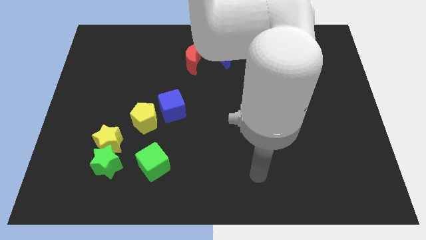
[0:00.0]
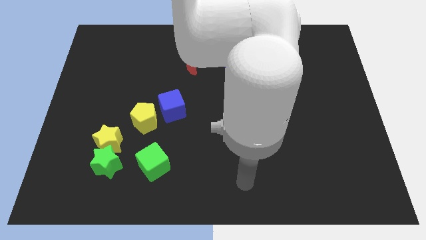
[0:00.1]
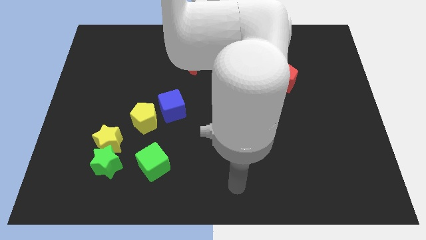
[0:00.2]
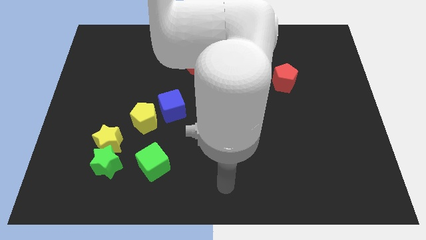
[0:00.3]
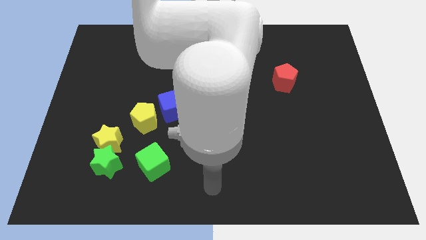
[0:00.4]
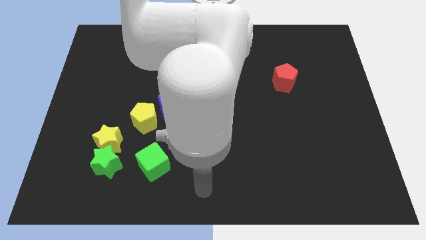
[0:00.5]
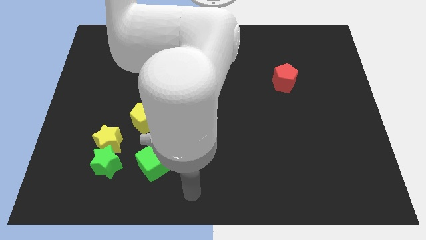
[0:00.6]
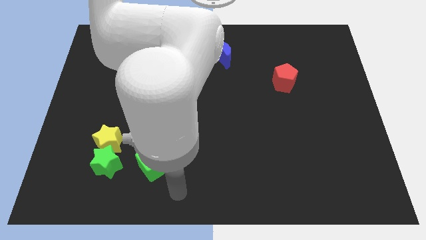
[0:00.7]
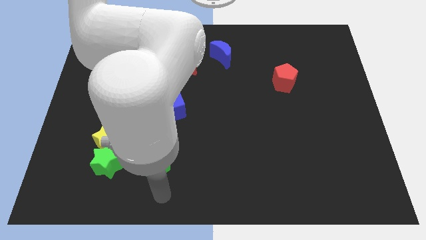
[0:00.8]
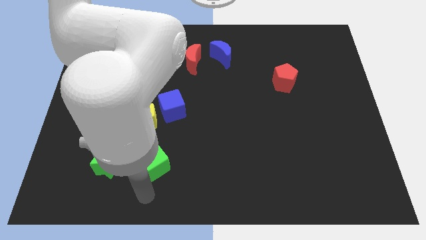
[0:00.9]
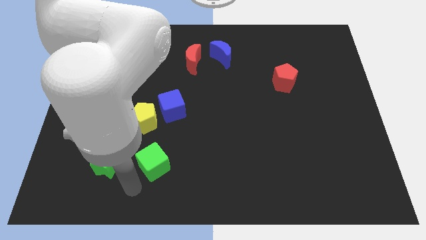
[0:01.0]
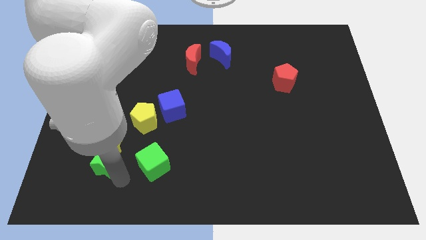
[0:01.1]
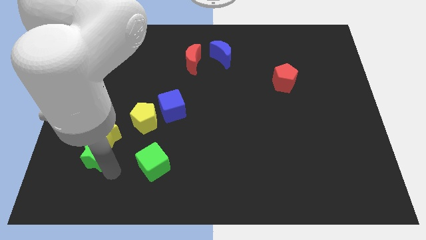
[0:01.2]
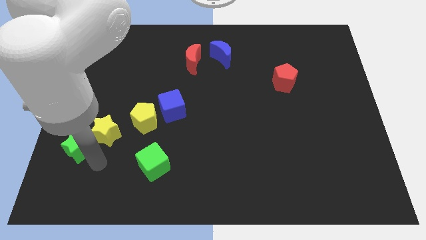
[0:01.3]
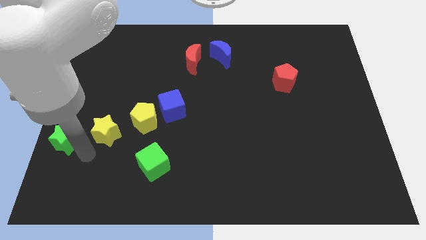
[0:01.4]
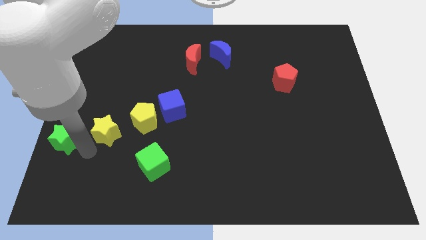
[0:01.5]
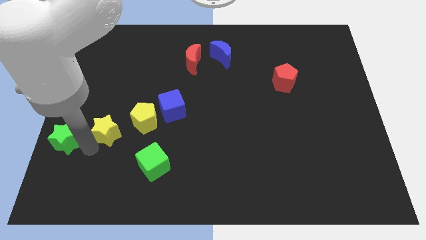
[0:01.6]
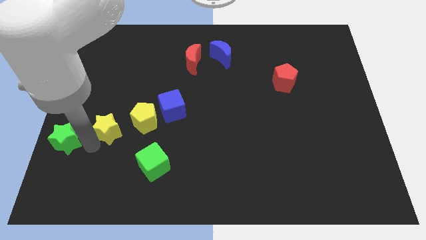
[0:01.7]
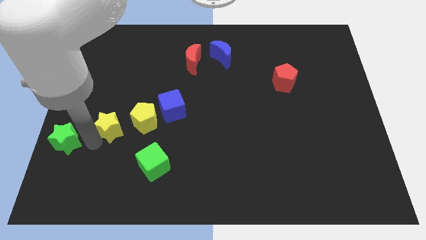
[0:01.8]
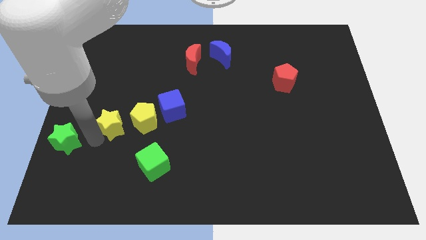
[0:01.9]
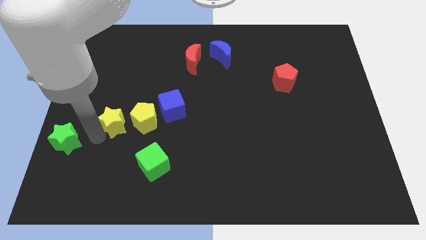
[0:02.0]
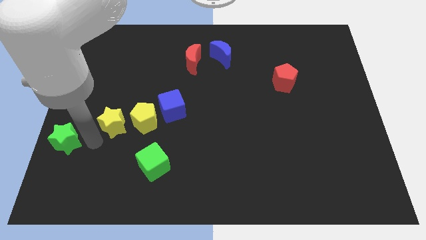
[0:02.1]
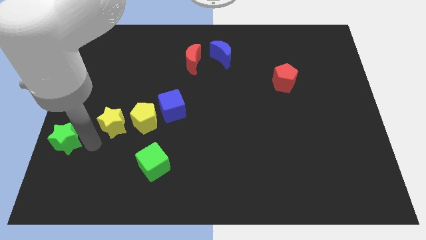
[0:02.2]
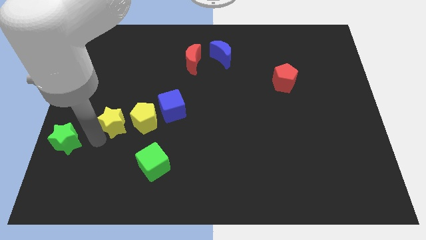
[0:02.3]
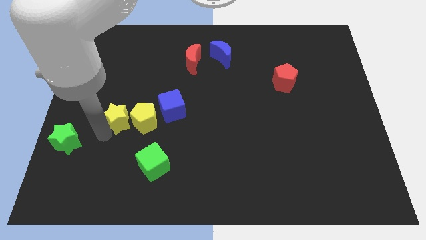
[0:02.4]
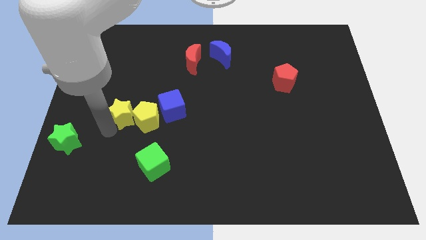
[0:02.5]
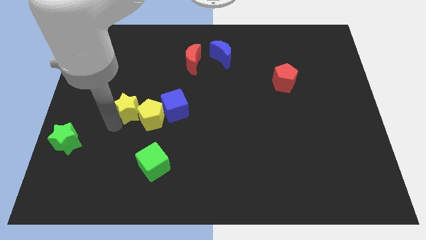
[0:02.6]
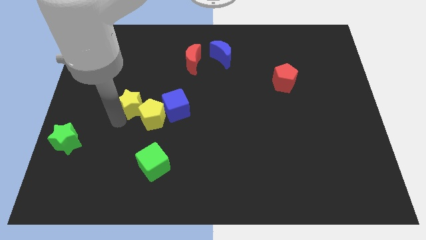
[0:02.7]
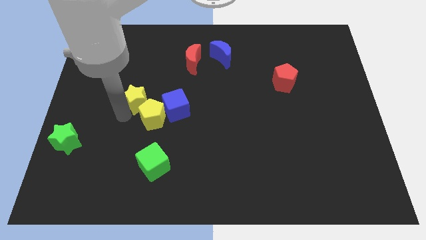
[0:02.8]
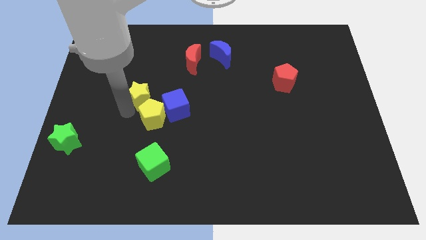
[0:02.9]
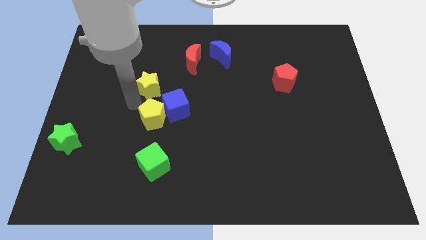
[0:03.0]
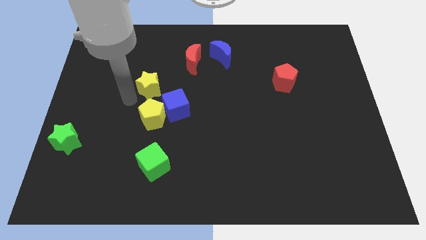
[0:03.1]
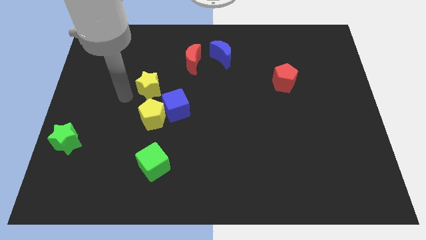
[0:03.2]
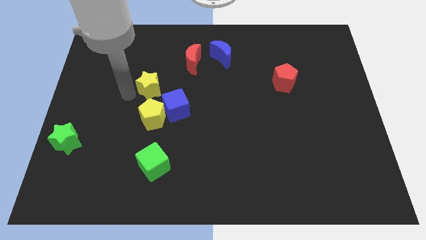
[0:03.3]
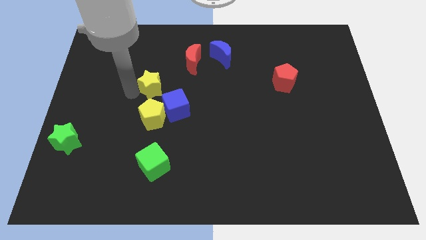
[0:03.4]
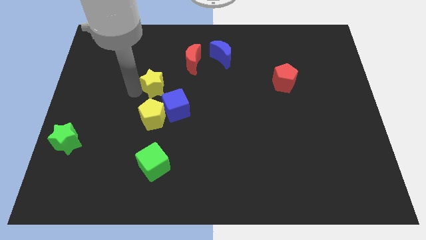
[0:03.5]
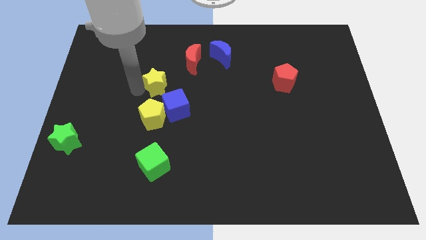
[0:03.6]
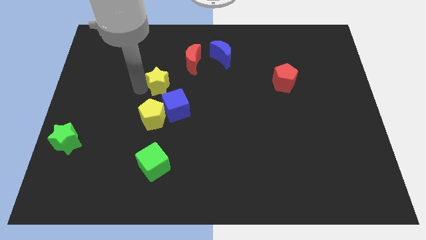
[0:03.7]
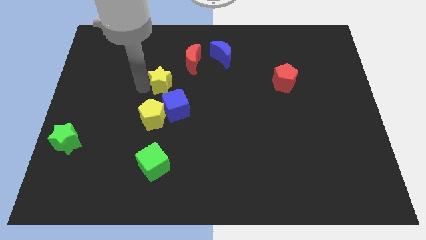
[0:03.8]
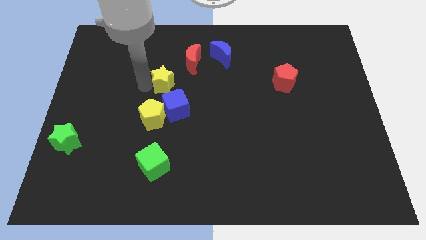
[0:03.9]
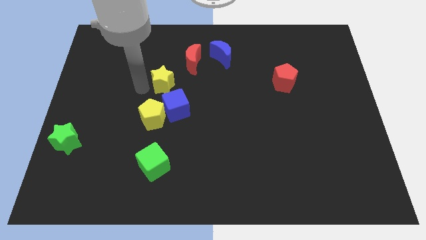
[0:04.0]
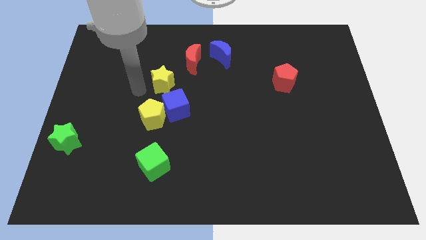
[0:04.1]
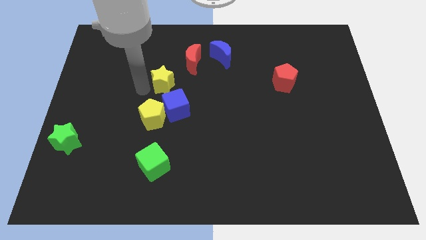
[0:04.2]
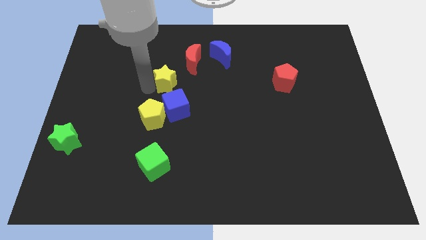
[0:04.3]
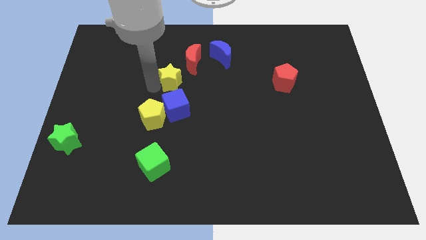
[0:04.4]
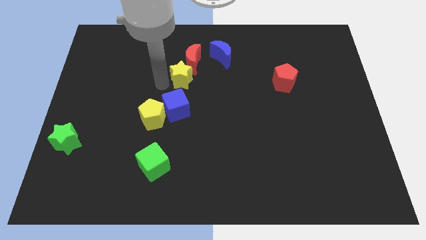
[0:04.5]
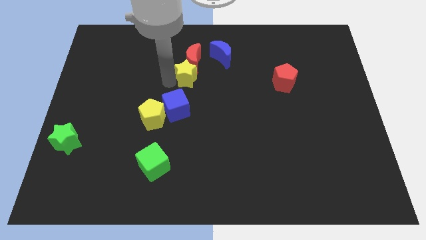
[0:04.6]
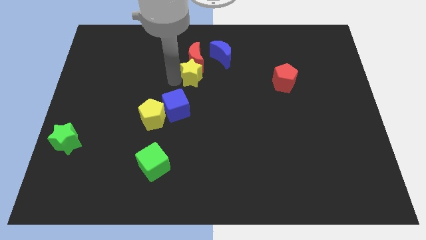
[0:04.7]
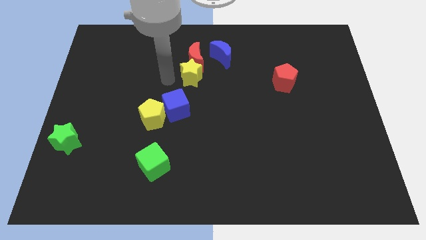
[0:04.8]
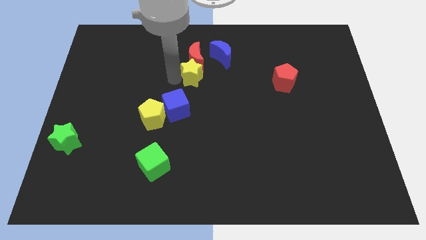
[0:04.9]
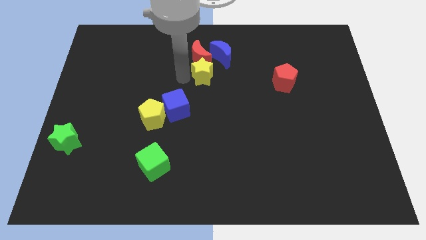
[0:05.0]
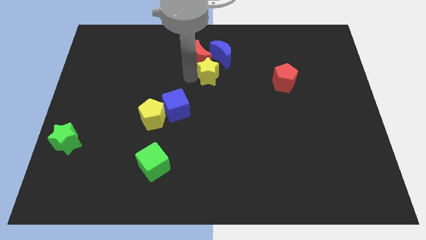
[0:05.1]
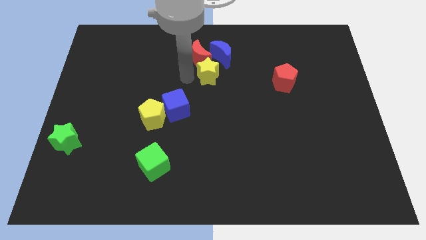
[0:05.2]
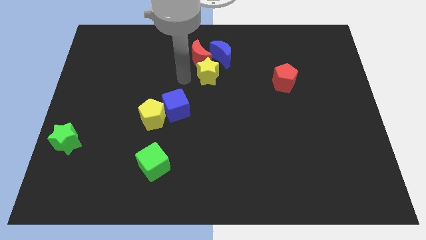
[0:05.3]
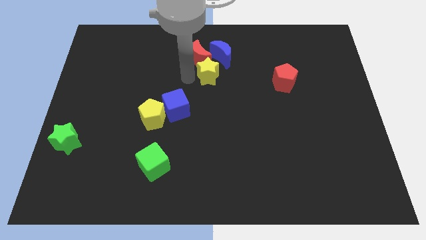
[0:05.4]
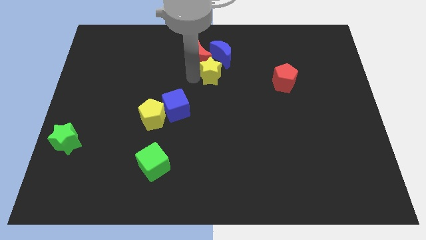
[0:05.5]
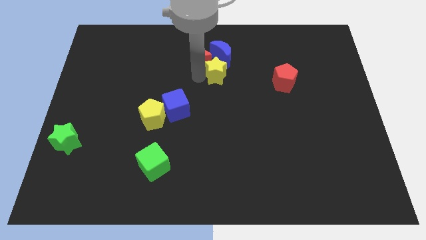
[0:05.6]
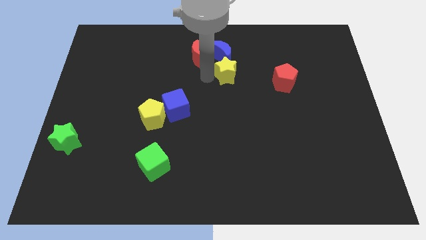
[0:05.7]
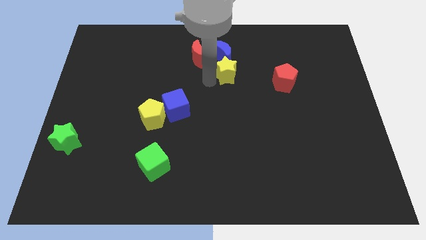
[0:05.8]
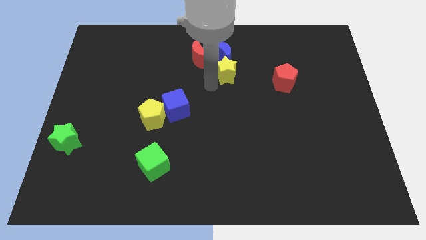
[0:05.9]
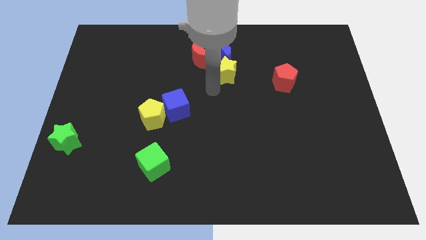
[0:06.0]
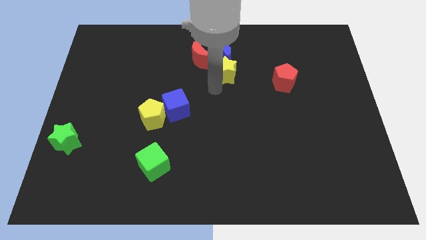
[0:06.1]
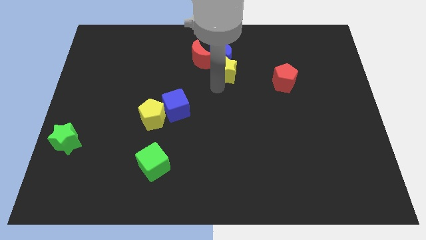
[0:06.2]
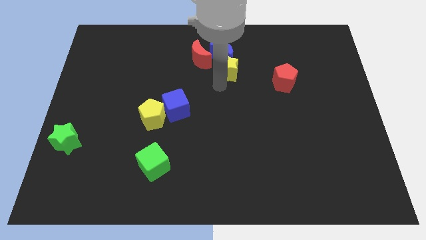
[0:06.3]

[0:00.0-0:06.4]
move the yellow star to the right of the red moon

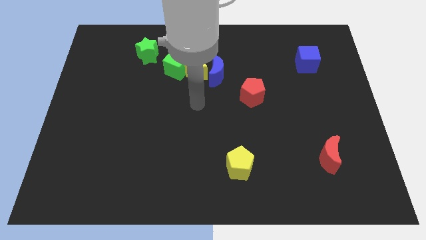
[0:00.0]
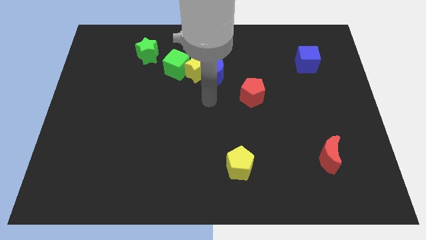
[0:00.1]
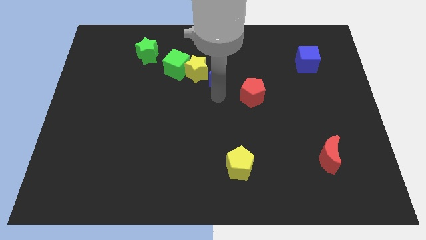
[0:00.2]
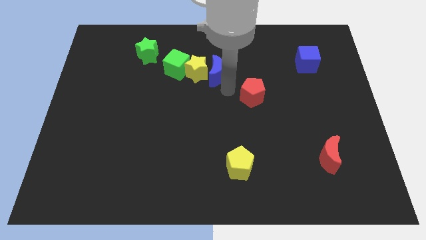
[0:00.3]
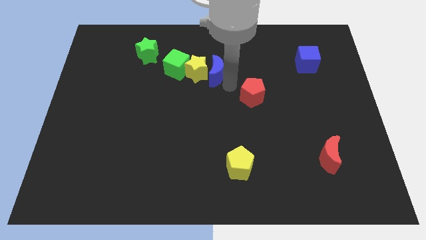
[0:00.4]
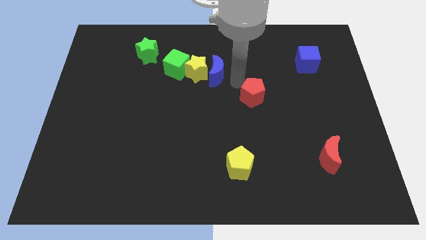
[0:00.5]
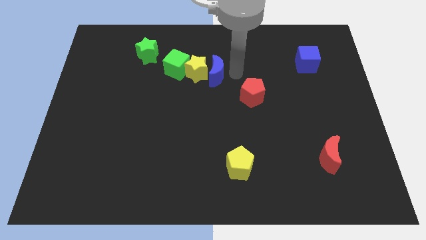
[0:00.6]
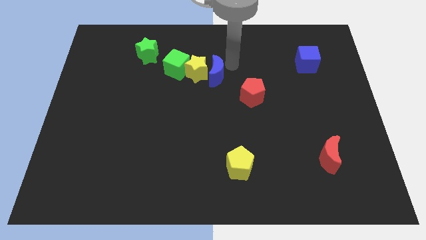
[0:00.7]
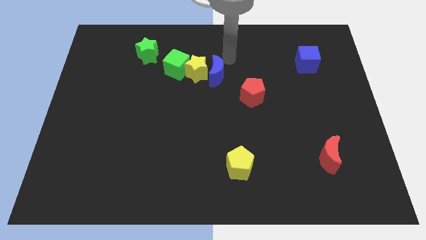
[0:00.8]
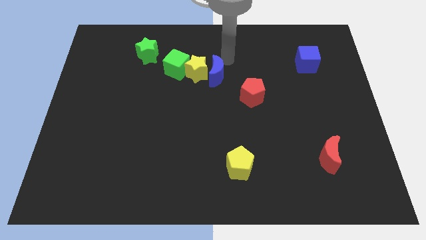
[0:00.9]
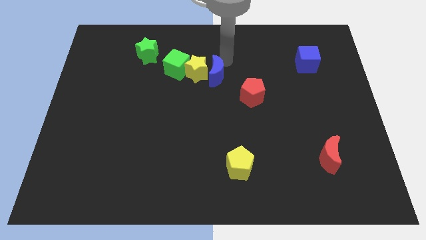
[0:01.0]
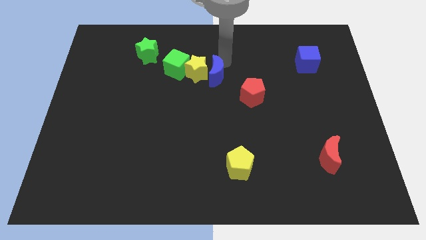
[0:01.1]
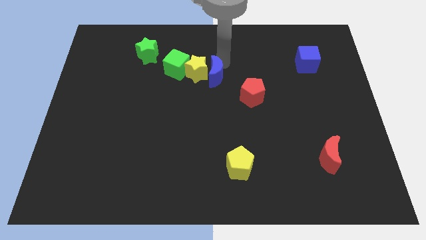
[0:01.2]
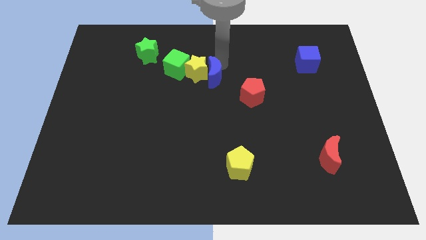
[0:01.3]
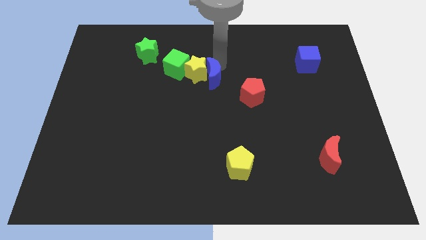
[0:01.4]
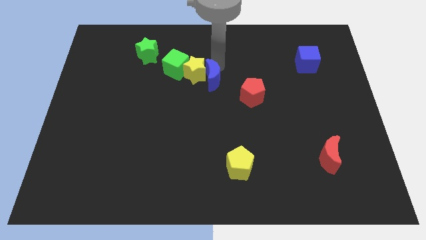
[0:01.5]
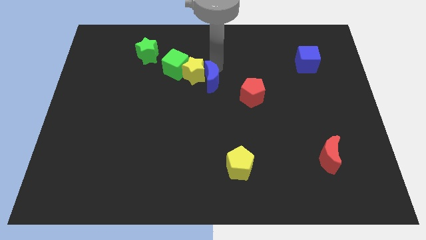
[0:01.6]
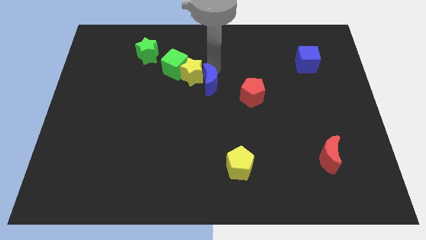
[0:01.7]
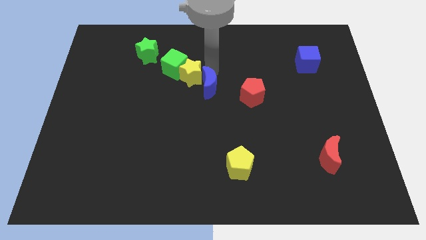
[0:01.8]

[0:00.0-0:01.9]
push the blue moon to the bottom of the yellow star
